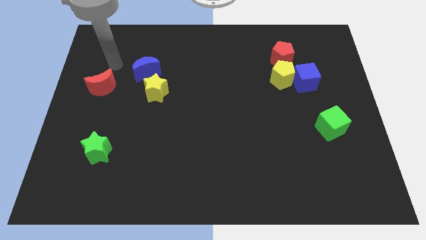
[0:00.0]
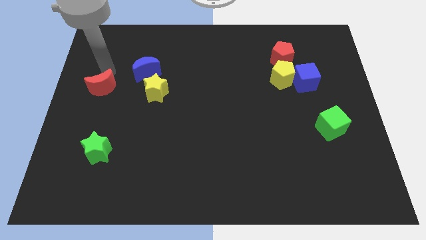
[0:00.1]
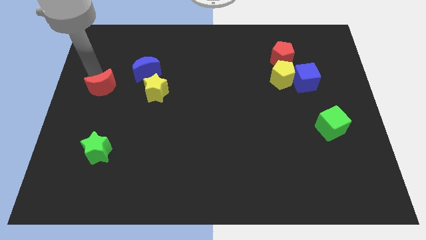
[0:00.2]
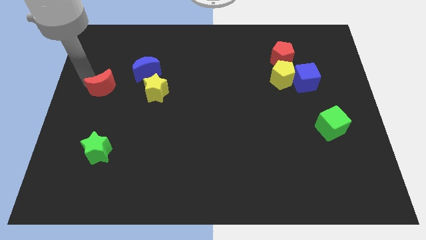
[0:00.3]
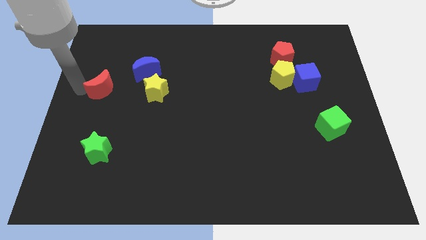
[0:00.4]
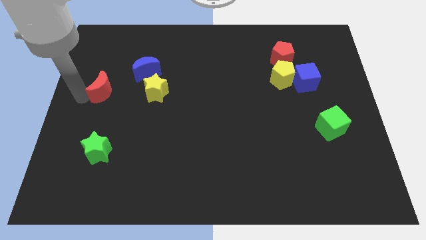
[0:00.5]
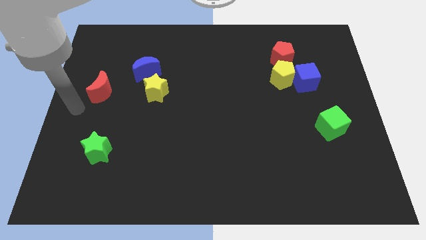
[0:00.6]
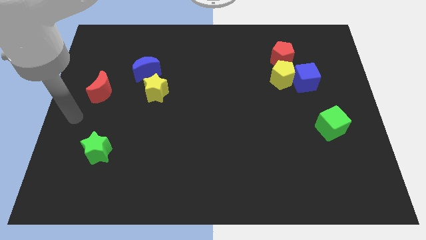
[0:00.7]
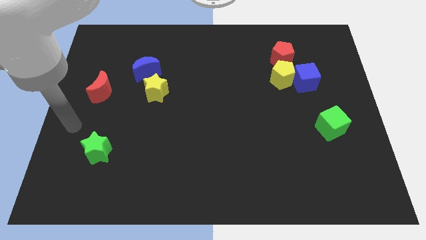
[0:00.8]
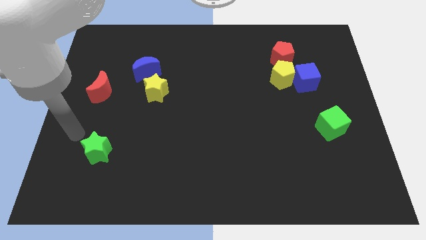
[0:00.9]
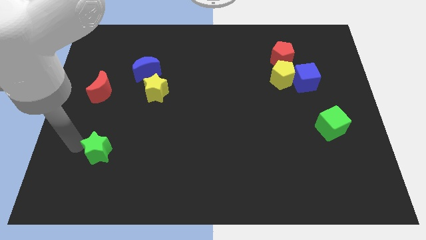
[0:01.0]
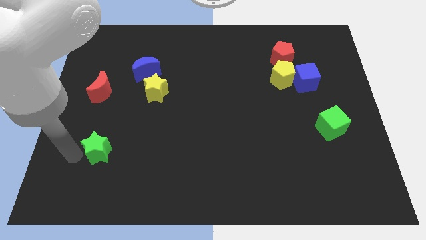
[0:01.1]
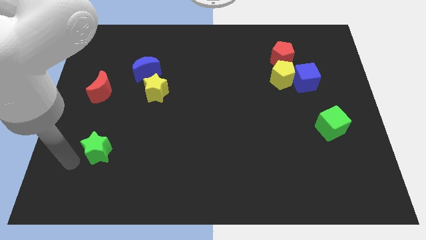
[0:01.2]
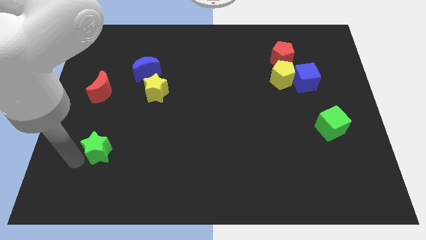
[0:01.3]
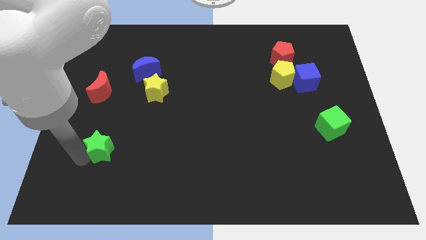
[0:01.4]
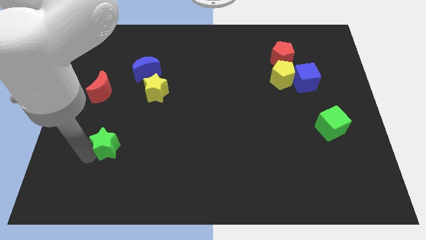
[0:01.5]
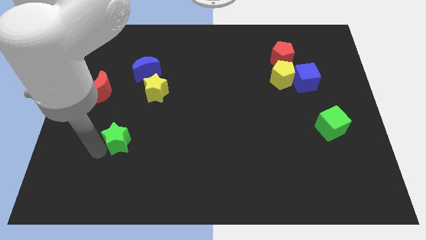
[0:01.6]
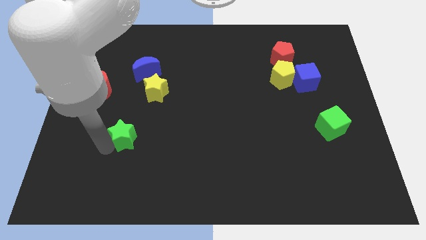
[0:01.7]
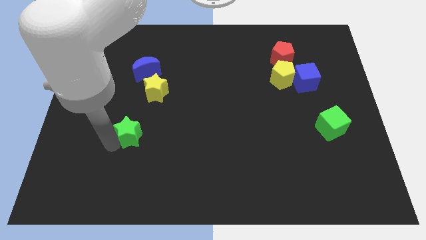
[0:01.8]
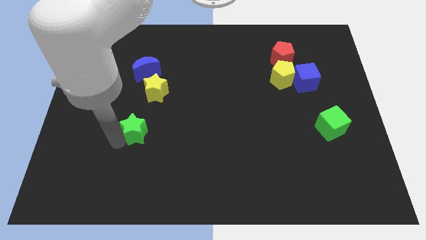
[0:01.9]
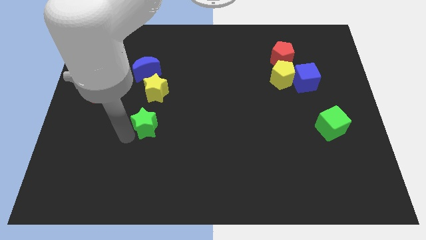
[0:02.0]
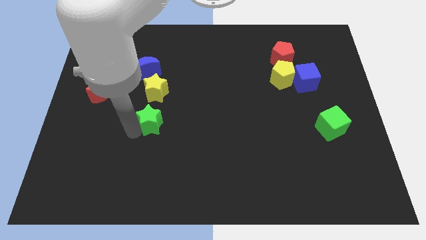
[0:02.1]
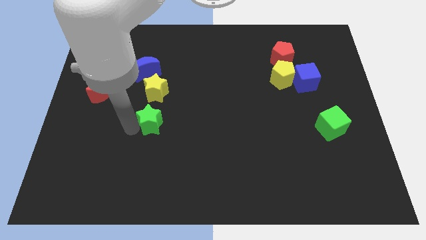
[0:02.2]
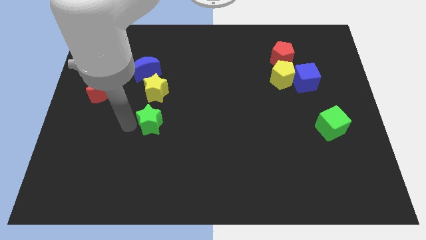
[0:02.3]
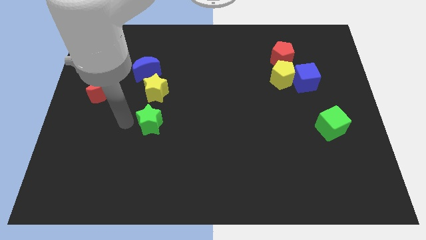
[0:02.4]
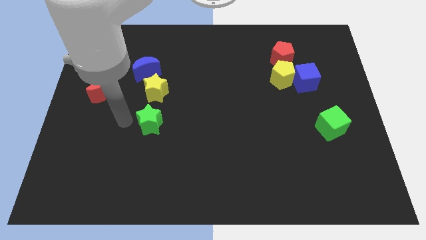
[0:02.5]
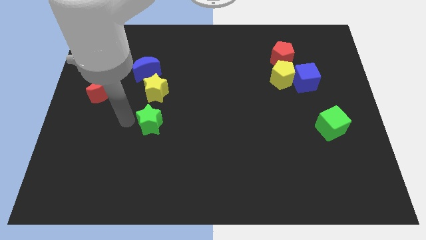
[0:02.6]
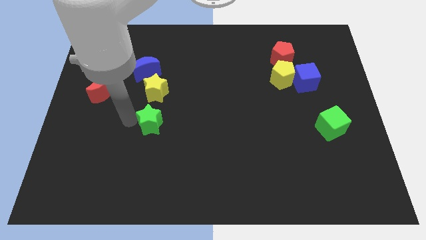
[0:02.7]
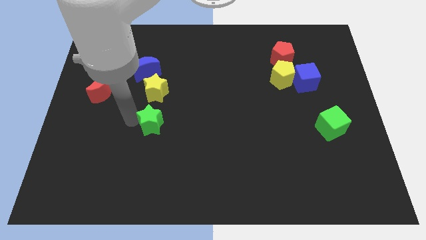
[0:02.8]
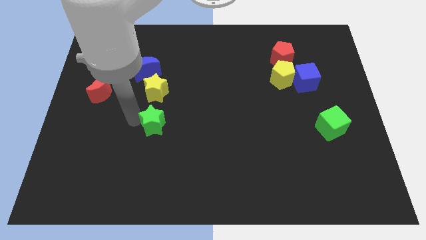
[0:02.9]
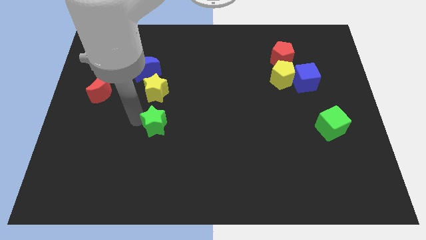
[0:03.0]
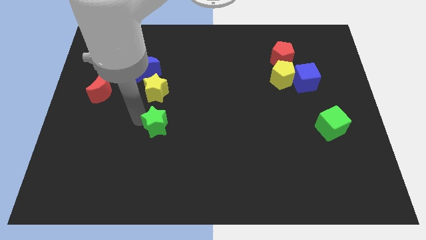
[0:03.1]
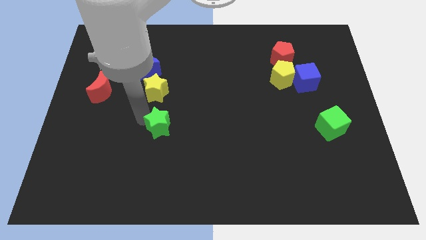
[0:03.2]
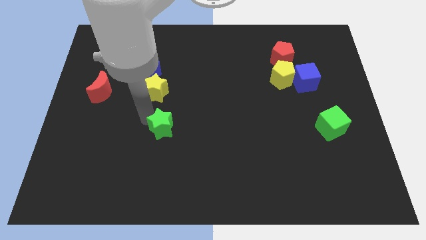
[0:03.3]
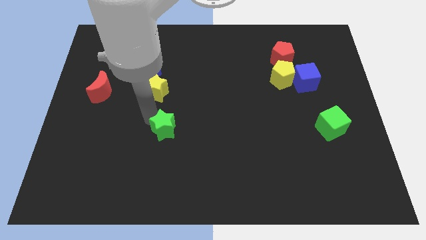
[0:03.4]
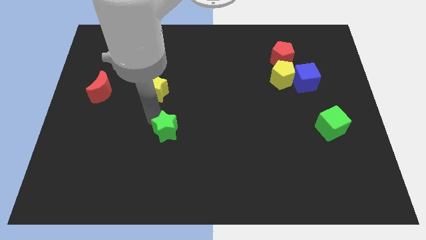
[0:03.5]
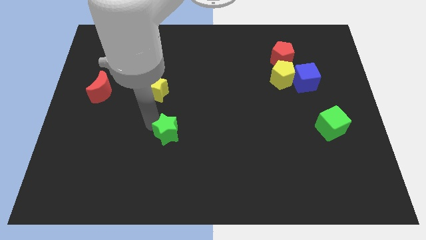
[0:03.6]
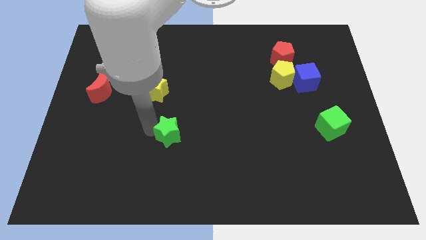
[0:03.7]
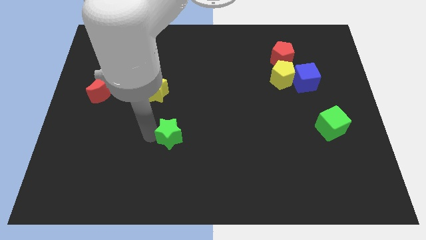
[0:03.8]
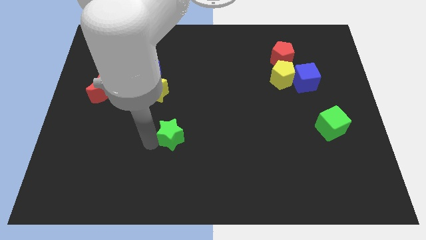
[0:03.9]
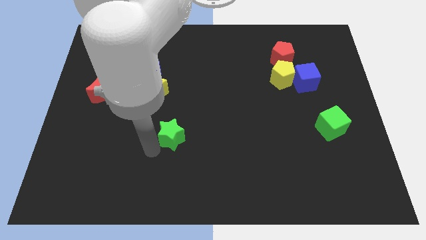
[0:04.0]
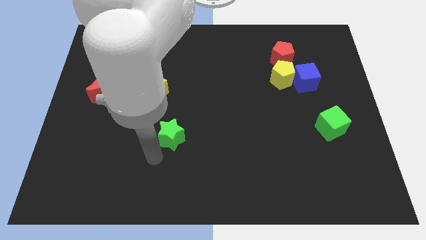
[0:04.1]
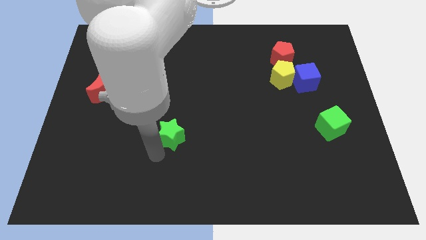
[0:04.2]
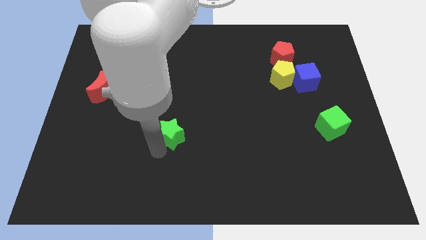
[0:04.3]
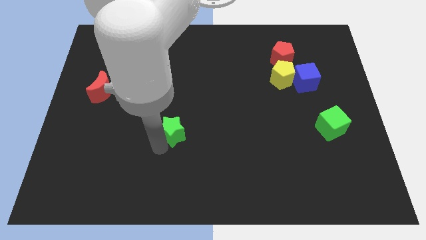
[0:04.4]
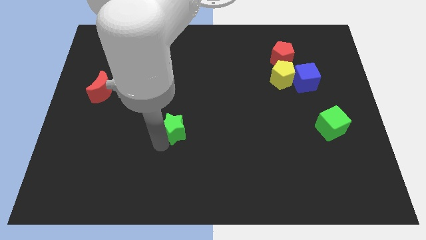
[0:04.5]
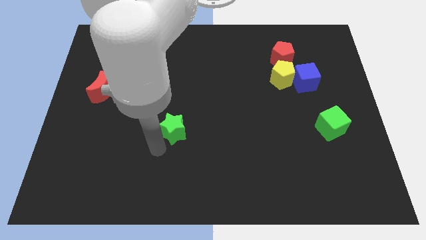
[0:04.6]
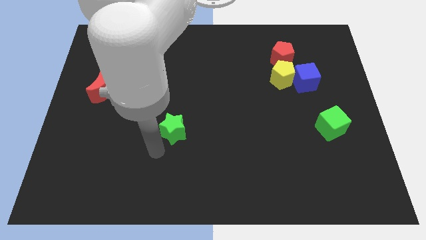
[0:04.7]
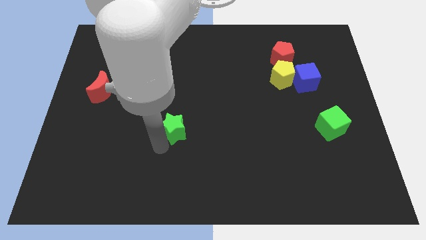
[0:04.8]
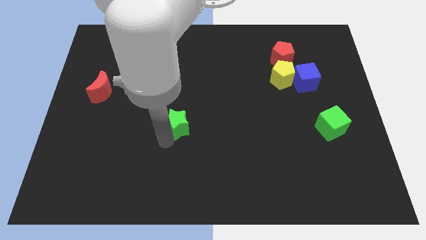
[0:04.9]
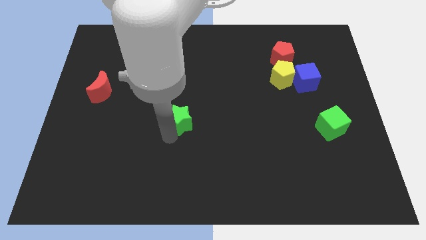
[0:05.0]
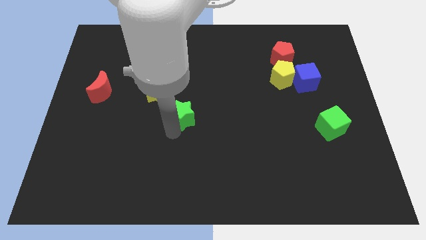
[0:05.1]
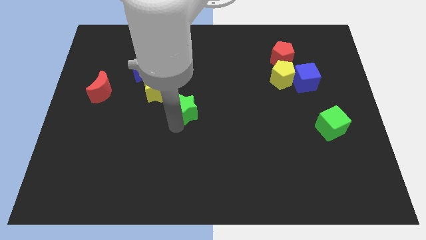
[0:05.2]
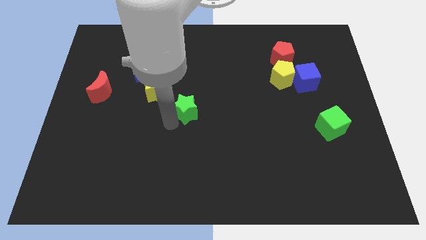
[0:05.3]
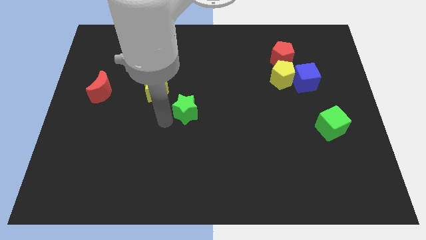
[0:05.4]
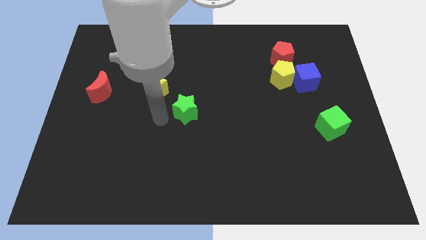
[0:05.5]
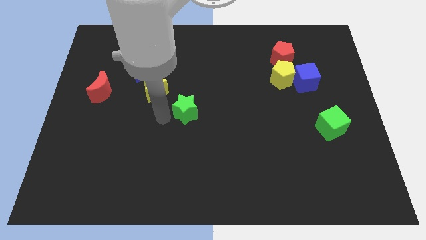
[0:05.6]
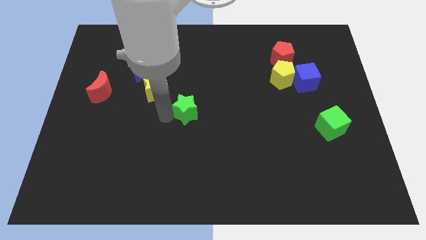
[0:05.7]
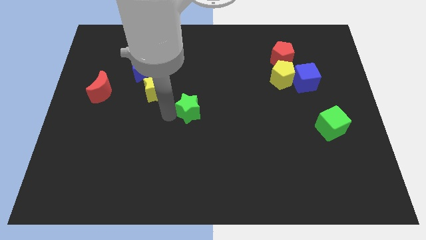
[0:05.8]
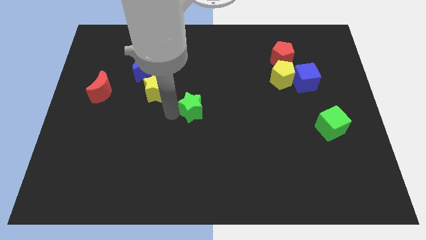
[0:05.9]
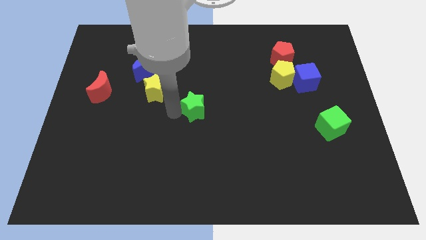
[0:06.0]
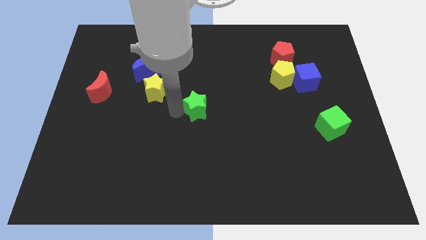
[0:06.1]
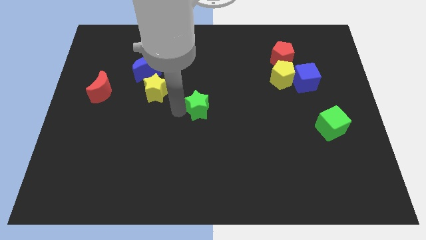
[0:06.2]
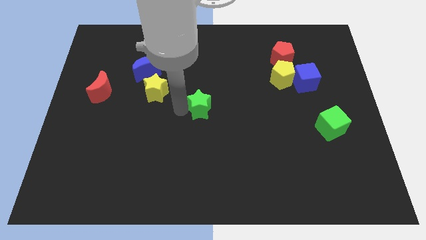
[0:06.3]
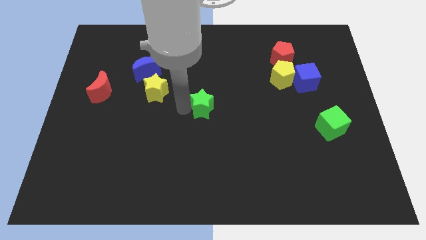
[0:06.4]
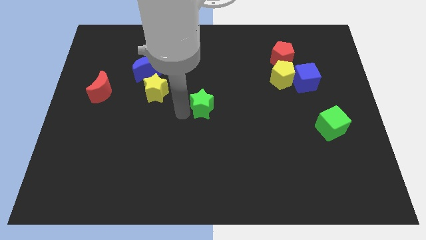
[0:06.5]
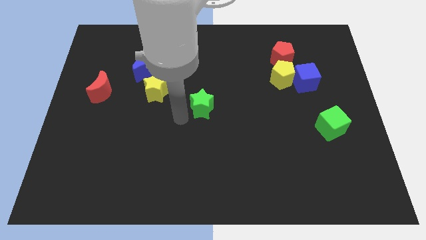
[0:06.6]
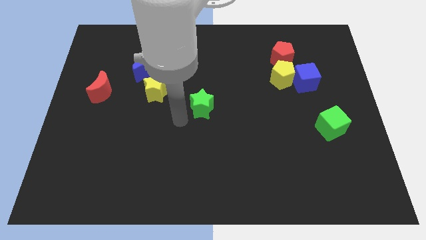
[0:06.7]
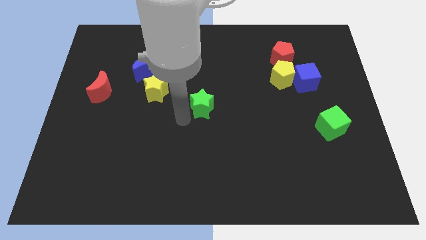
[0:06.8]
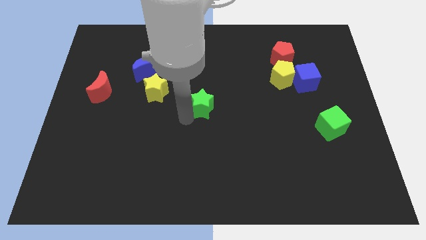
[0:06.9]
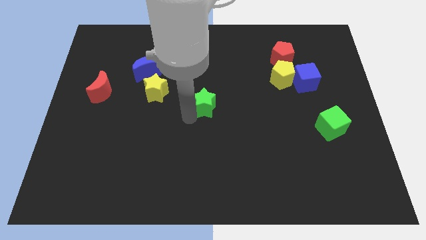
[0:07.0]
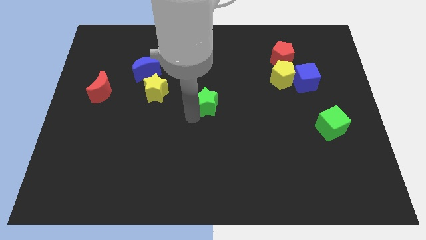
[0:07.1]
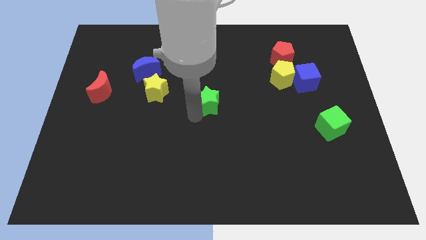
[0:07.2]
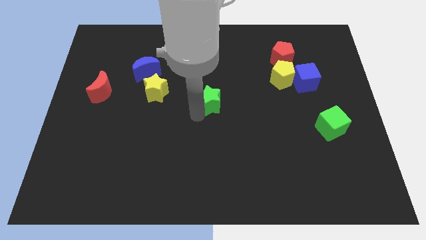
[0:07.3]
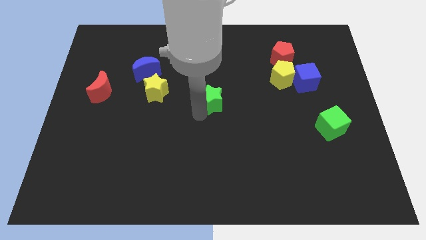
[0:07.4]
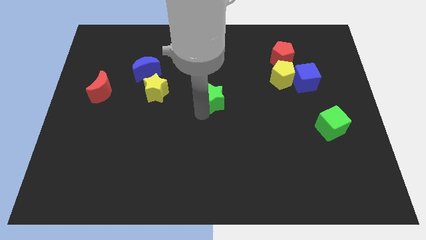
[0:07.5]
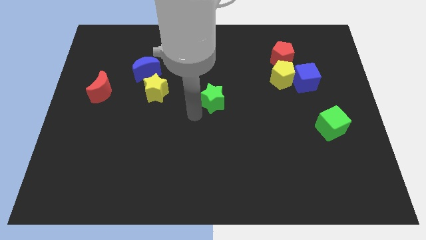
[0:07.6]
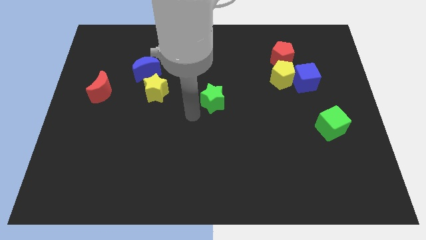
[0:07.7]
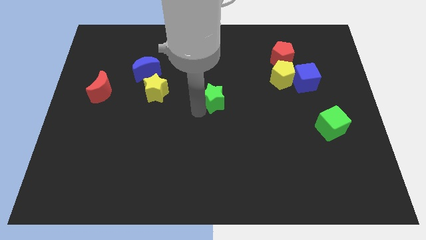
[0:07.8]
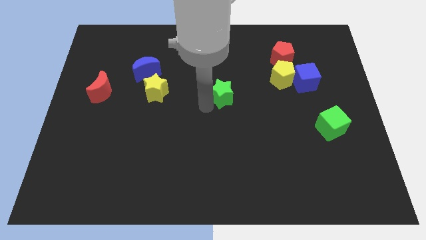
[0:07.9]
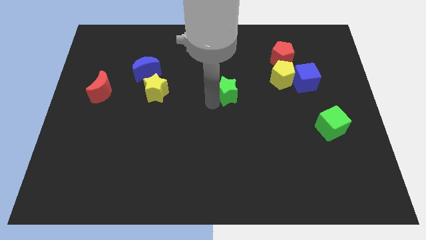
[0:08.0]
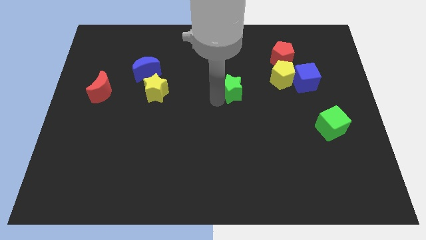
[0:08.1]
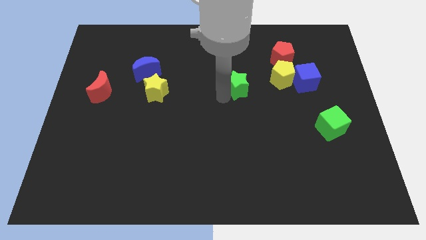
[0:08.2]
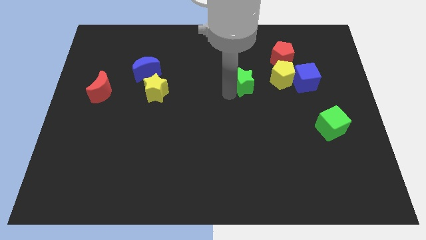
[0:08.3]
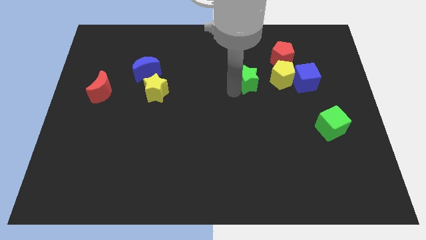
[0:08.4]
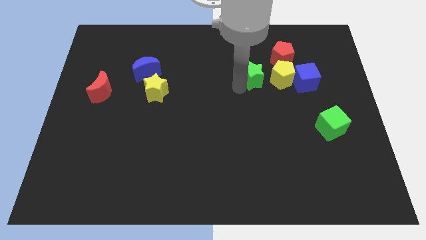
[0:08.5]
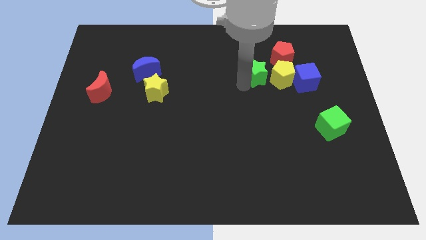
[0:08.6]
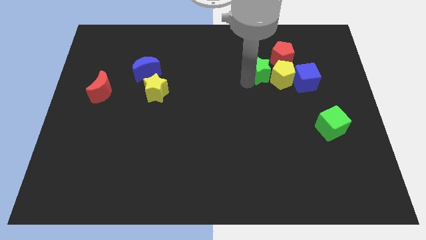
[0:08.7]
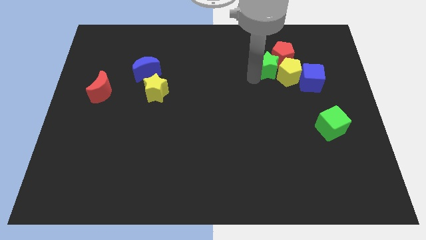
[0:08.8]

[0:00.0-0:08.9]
move the green star towards the red pentagon
